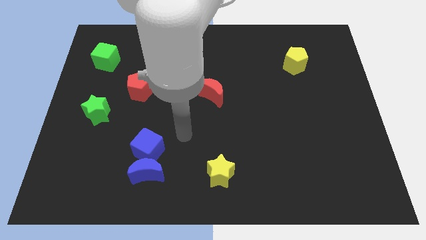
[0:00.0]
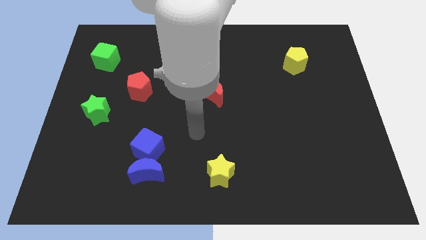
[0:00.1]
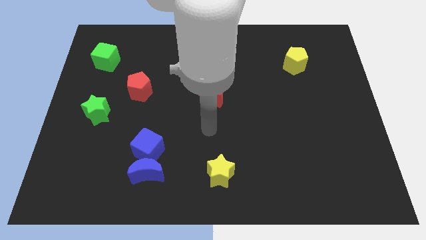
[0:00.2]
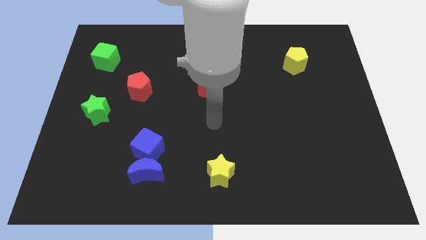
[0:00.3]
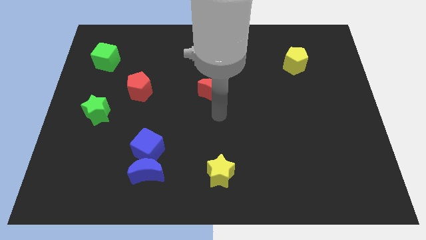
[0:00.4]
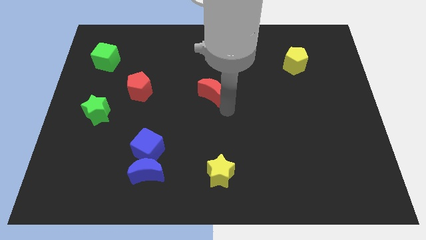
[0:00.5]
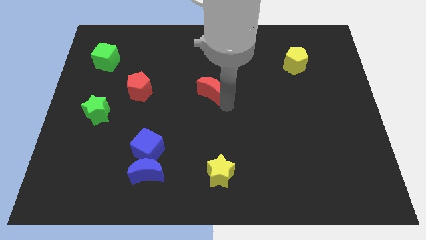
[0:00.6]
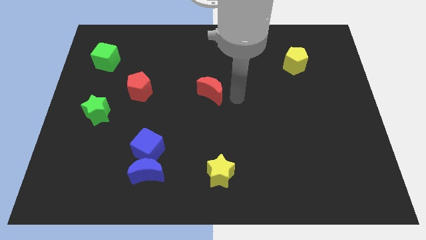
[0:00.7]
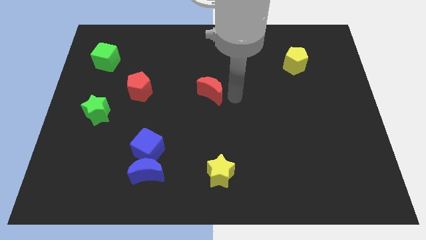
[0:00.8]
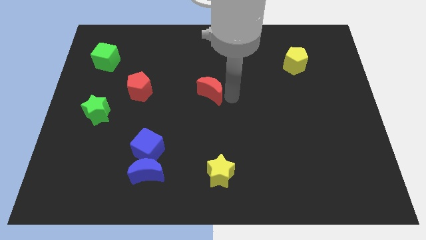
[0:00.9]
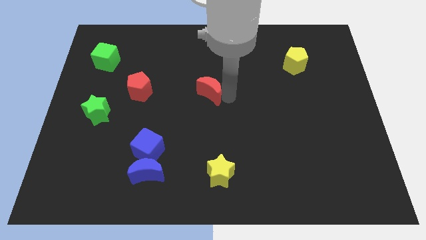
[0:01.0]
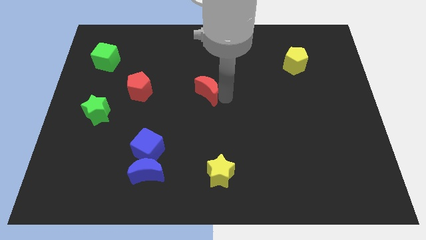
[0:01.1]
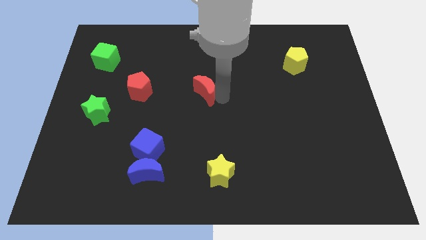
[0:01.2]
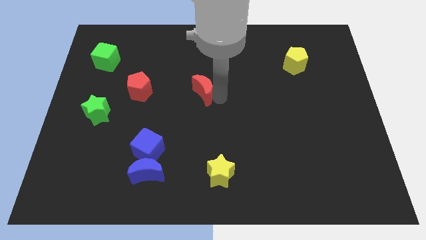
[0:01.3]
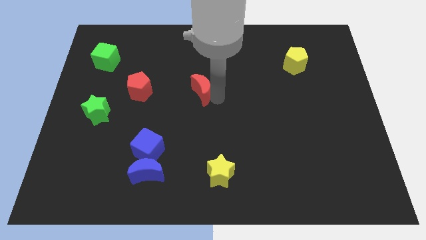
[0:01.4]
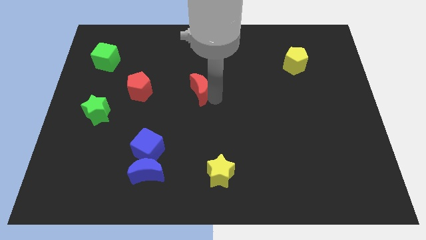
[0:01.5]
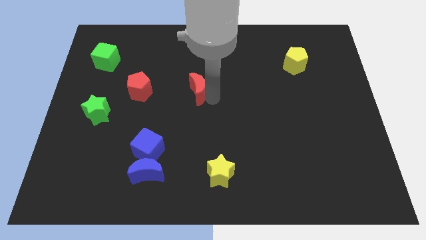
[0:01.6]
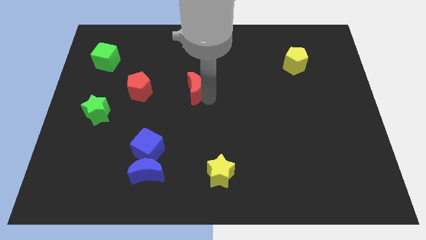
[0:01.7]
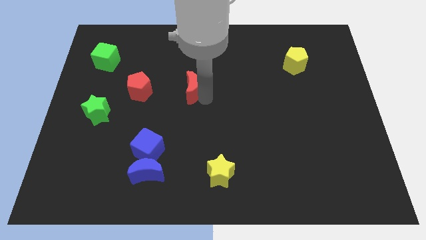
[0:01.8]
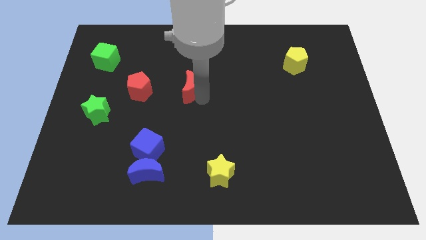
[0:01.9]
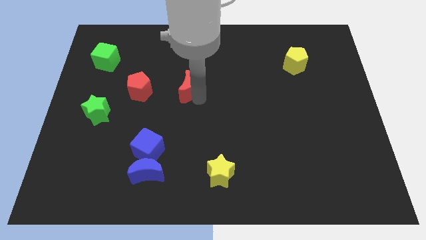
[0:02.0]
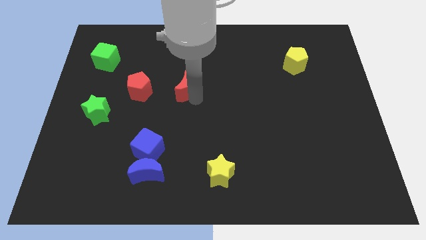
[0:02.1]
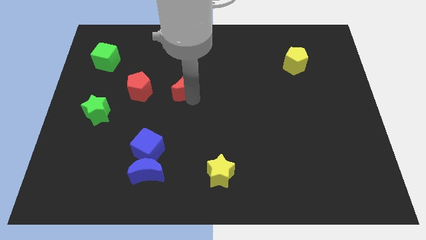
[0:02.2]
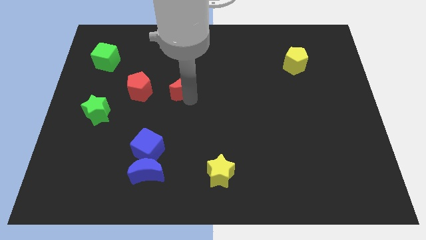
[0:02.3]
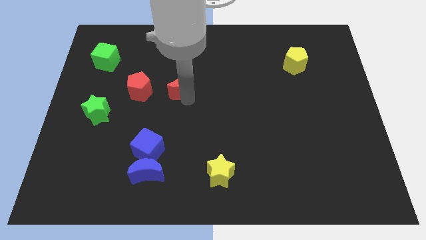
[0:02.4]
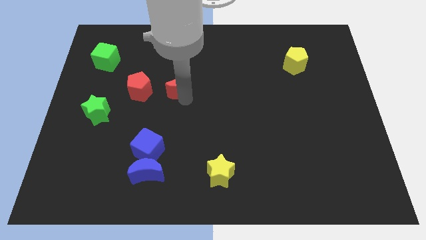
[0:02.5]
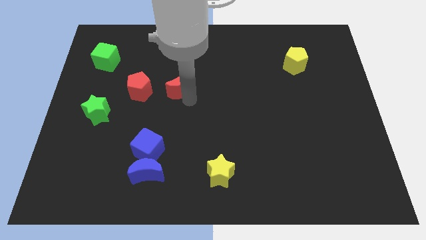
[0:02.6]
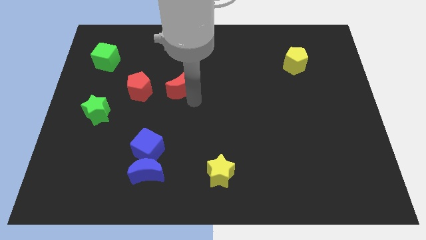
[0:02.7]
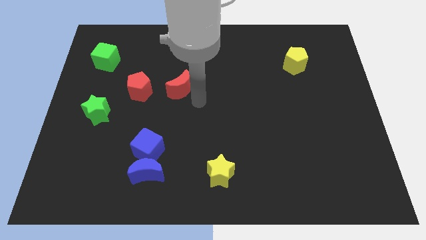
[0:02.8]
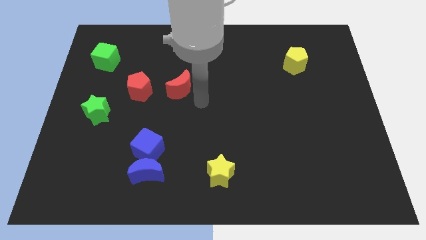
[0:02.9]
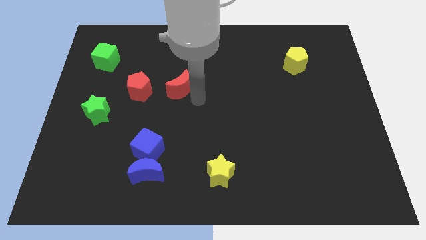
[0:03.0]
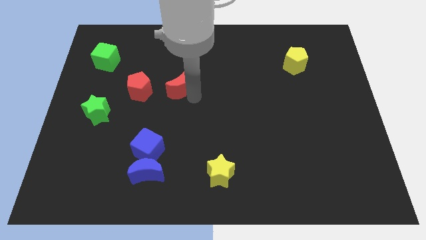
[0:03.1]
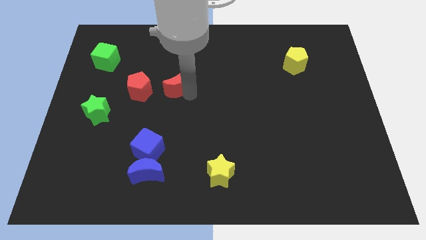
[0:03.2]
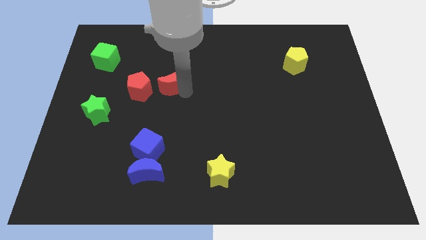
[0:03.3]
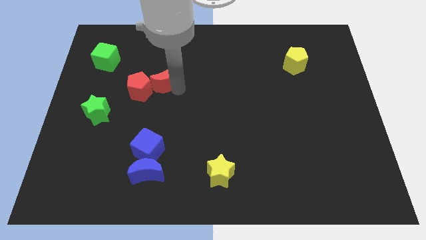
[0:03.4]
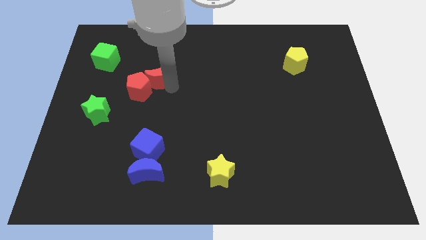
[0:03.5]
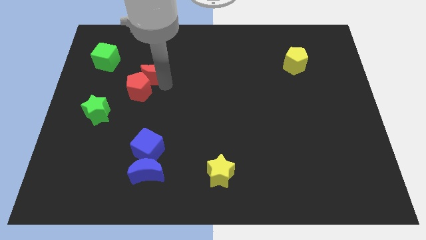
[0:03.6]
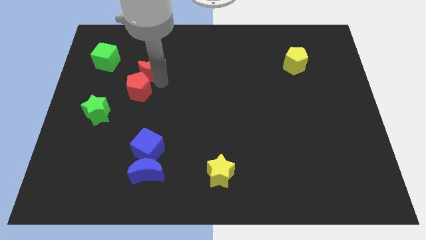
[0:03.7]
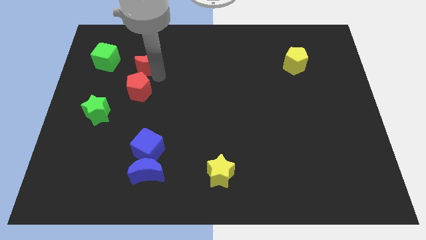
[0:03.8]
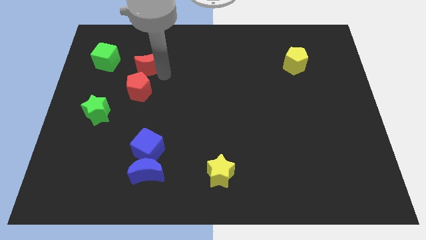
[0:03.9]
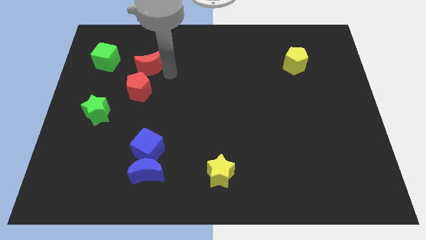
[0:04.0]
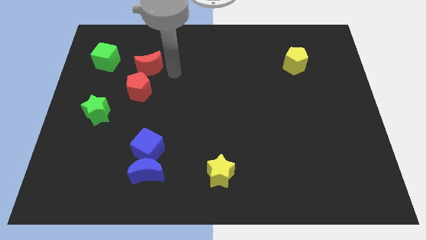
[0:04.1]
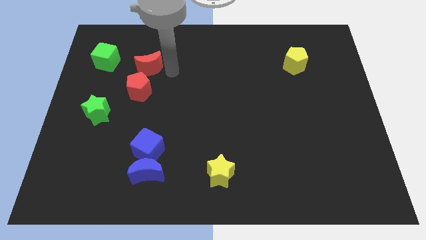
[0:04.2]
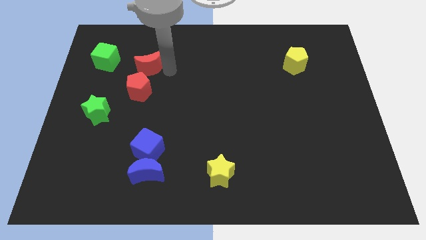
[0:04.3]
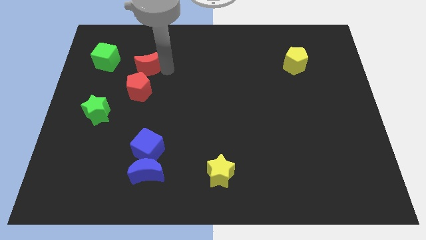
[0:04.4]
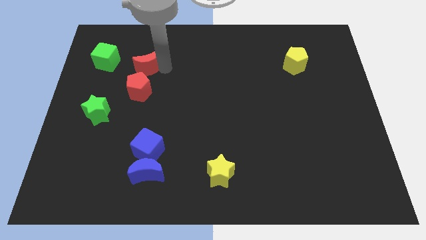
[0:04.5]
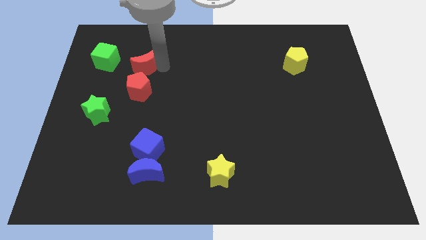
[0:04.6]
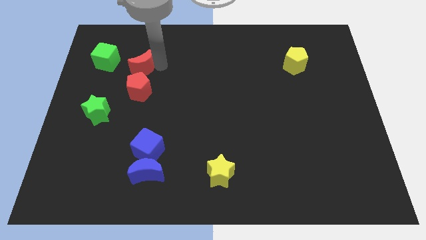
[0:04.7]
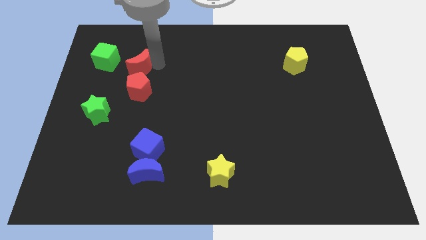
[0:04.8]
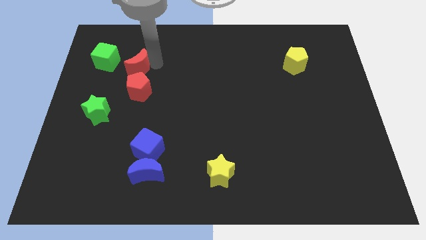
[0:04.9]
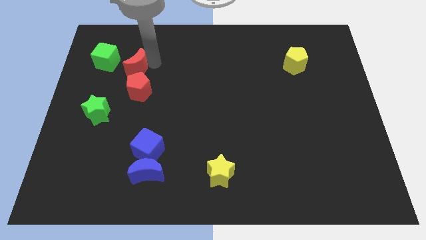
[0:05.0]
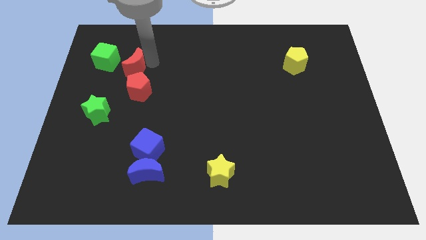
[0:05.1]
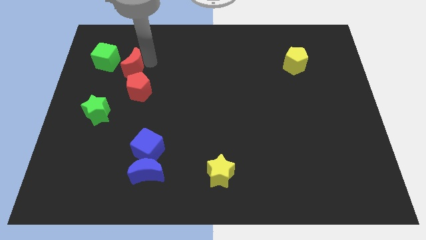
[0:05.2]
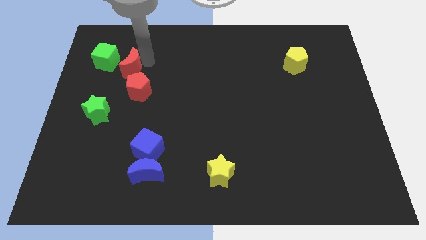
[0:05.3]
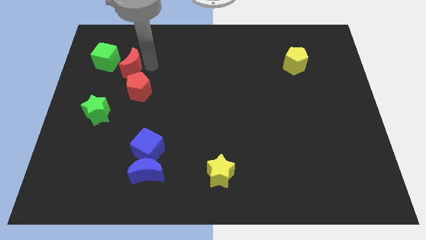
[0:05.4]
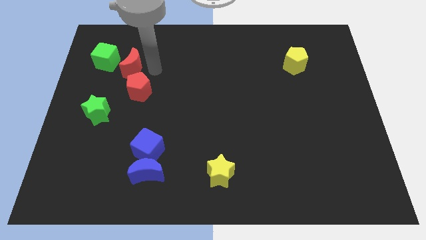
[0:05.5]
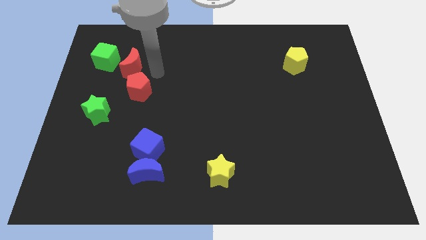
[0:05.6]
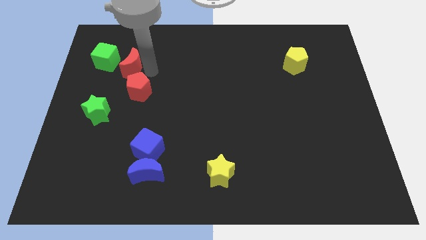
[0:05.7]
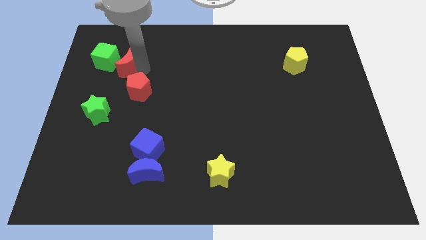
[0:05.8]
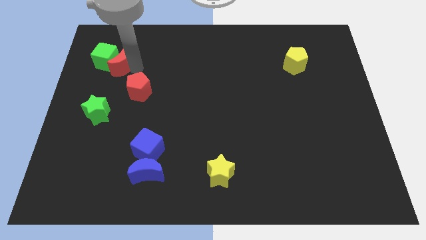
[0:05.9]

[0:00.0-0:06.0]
slide the red moon next to the green cube

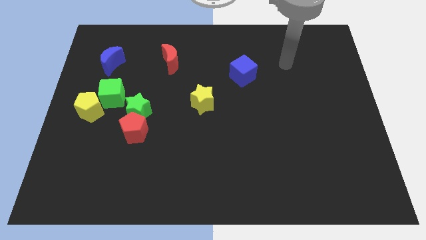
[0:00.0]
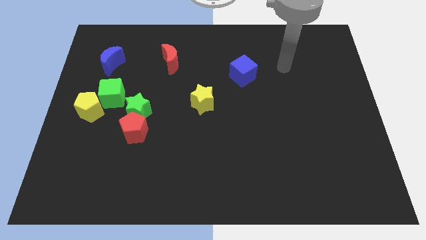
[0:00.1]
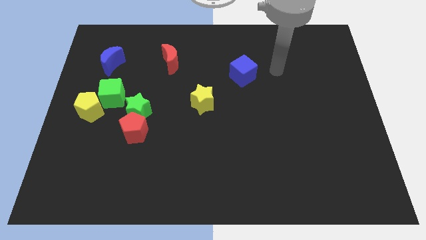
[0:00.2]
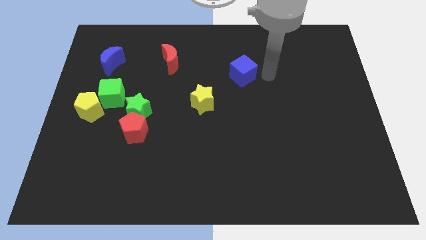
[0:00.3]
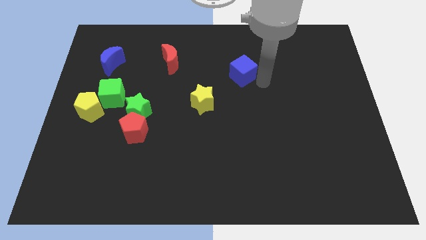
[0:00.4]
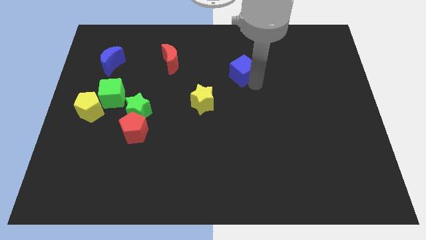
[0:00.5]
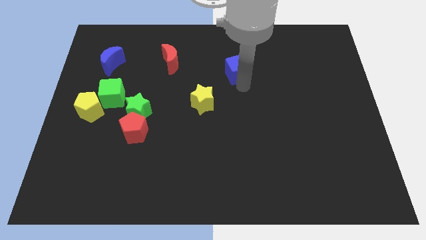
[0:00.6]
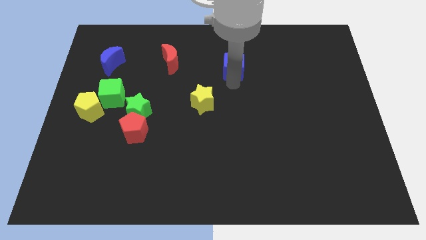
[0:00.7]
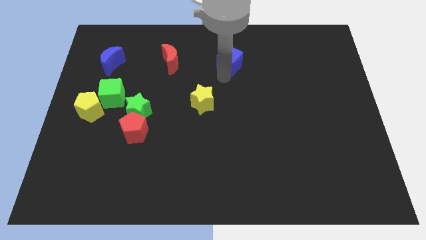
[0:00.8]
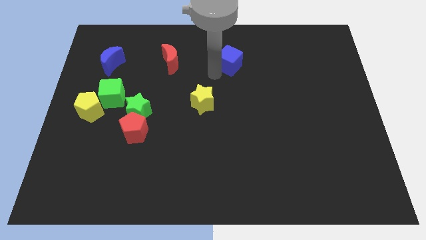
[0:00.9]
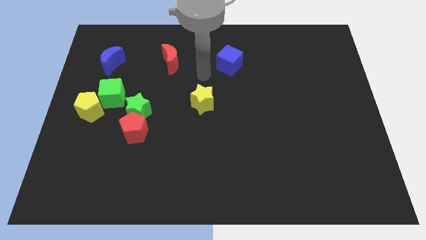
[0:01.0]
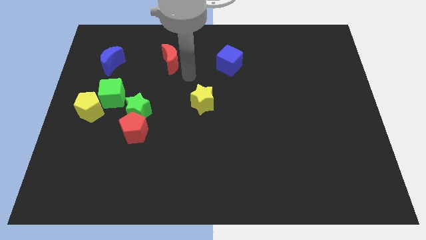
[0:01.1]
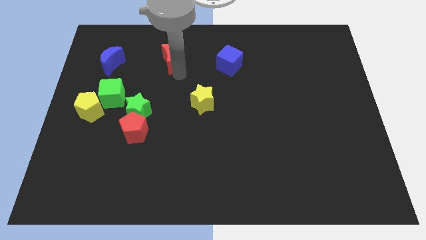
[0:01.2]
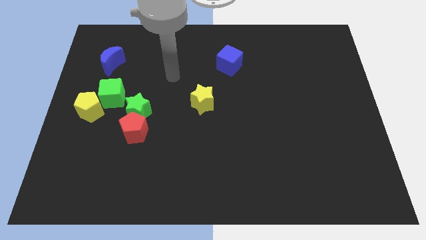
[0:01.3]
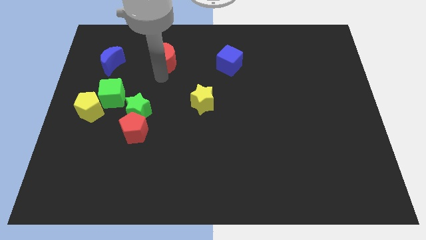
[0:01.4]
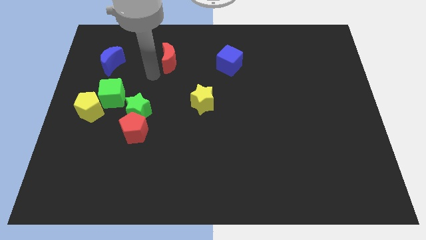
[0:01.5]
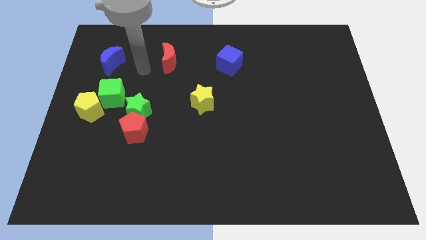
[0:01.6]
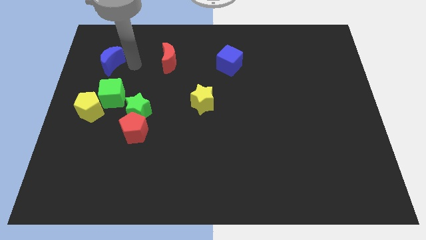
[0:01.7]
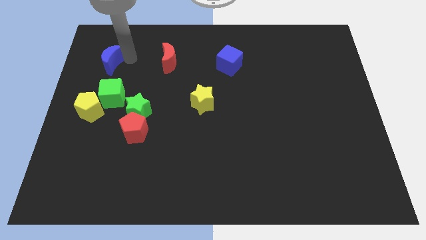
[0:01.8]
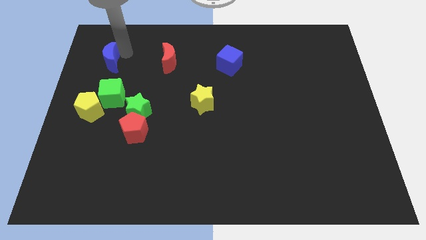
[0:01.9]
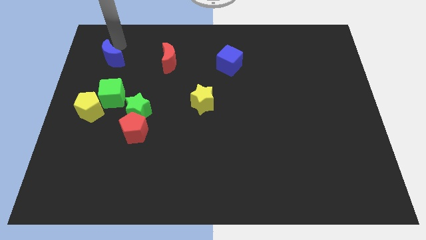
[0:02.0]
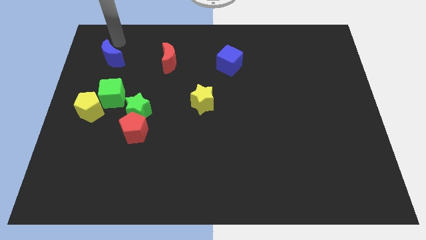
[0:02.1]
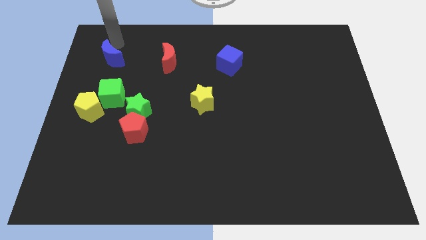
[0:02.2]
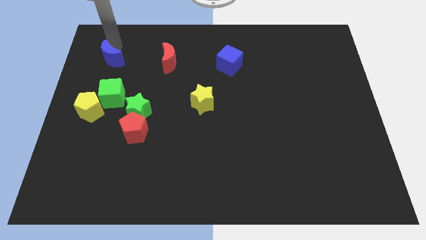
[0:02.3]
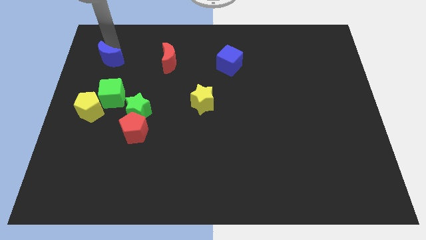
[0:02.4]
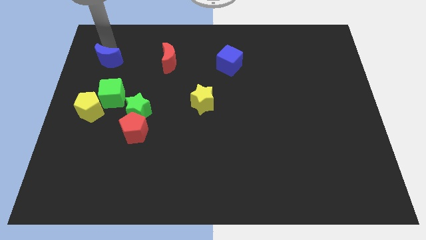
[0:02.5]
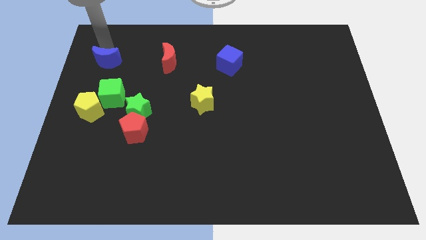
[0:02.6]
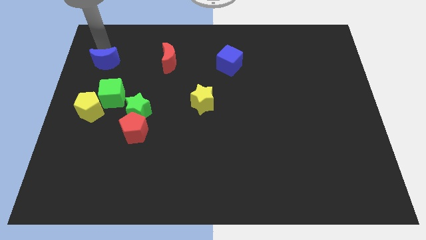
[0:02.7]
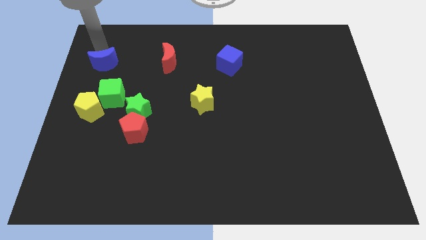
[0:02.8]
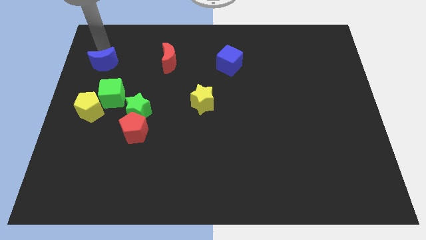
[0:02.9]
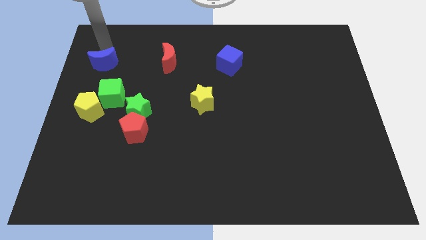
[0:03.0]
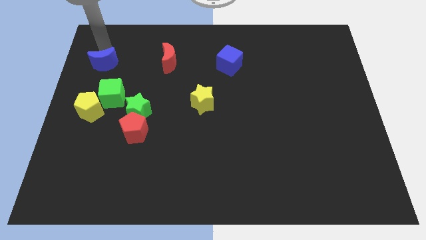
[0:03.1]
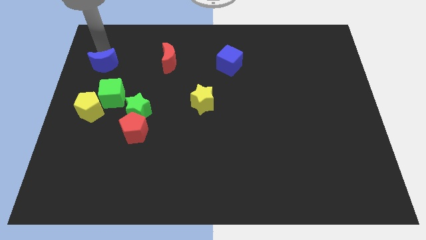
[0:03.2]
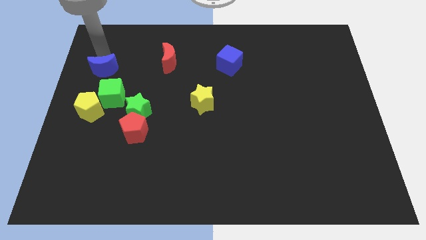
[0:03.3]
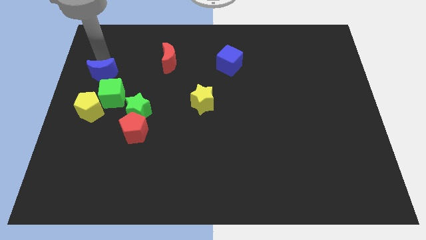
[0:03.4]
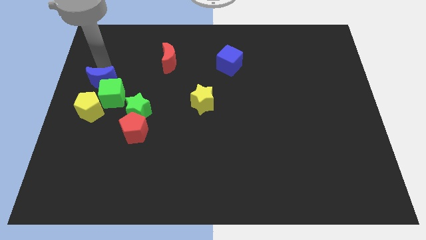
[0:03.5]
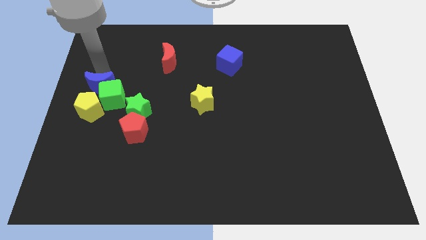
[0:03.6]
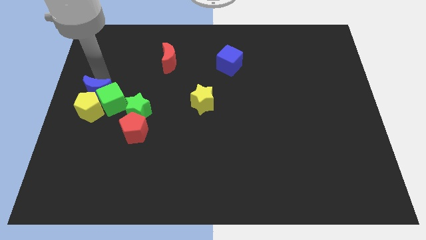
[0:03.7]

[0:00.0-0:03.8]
put the blue moon close to the yellow pentagon
